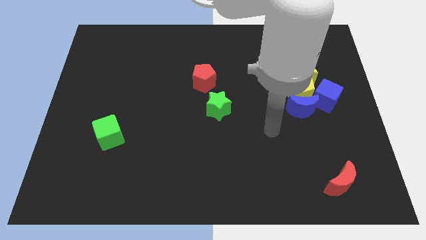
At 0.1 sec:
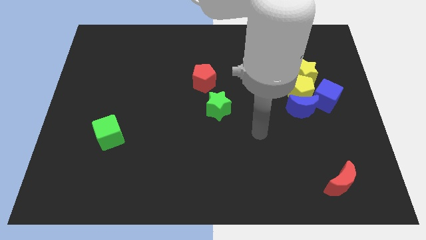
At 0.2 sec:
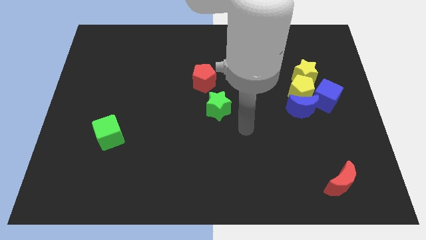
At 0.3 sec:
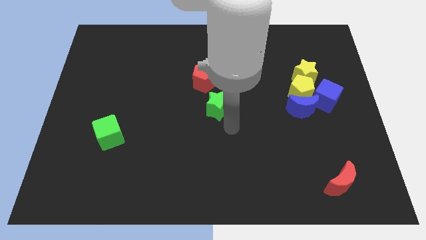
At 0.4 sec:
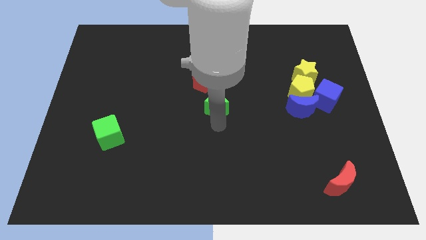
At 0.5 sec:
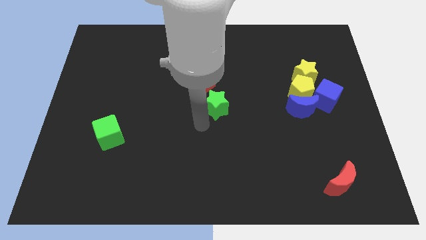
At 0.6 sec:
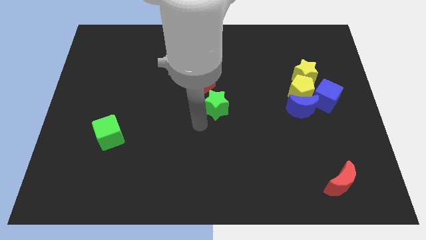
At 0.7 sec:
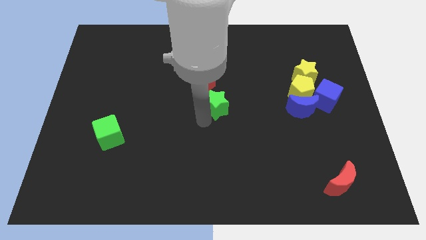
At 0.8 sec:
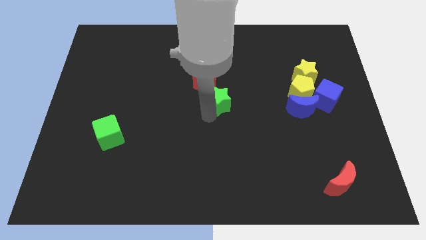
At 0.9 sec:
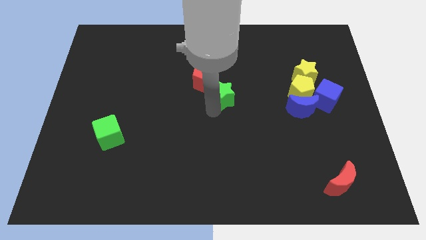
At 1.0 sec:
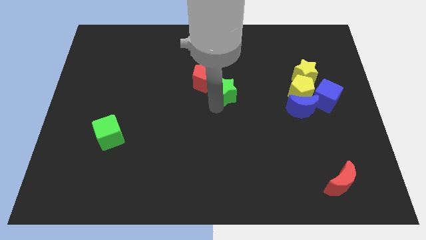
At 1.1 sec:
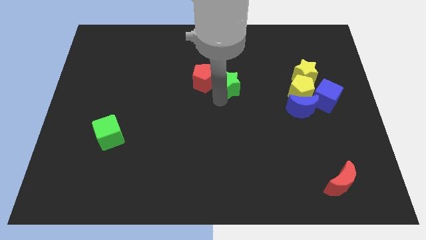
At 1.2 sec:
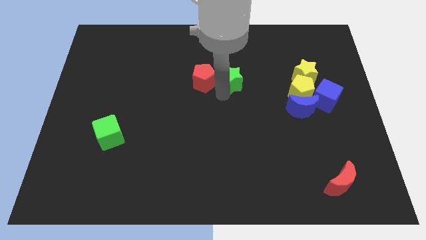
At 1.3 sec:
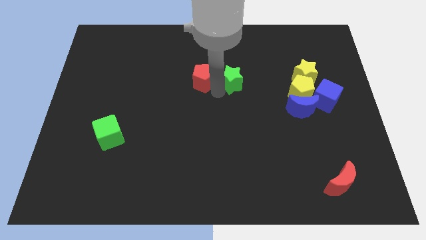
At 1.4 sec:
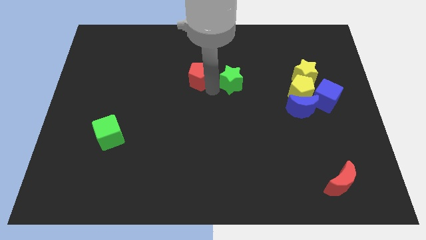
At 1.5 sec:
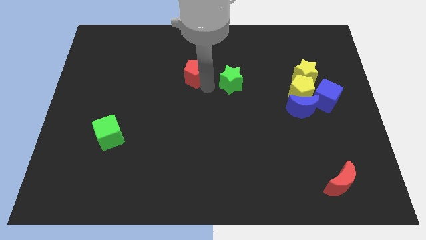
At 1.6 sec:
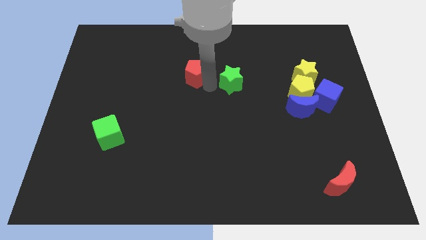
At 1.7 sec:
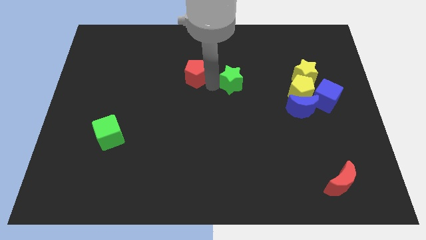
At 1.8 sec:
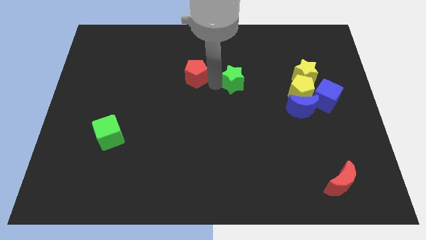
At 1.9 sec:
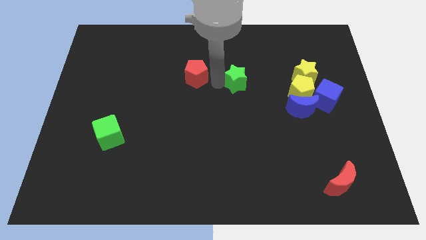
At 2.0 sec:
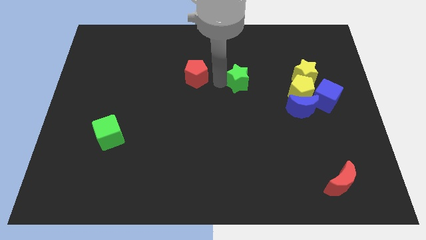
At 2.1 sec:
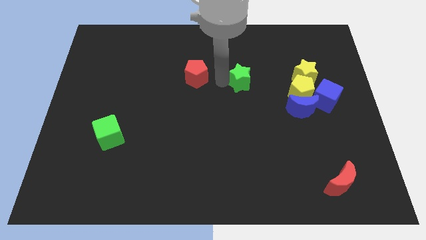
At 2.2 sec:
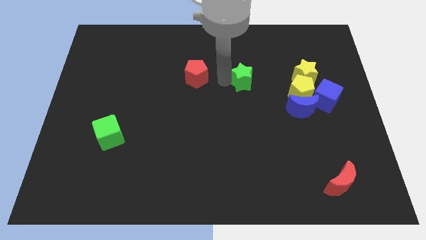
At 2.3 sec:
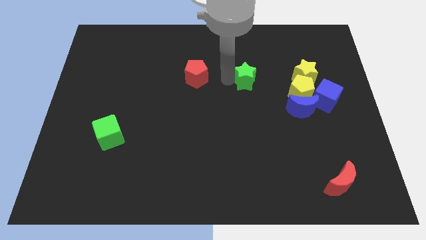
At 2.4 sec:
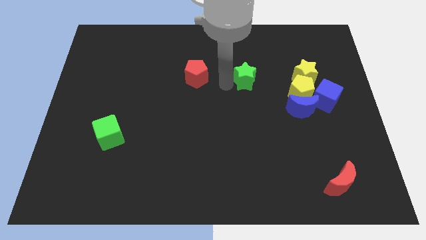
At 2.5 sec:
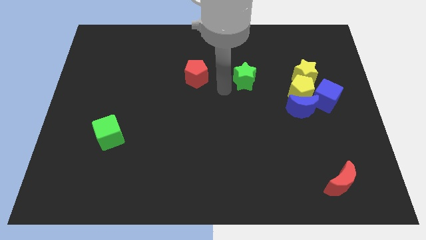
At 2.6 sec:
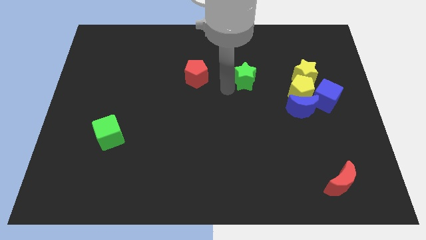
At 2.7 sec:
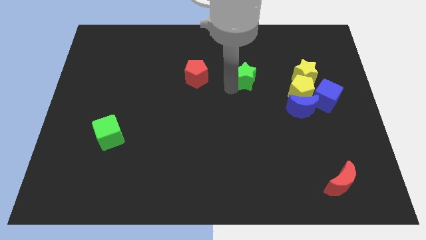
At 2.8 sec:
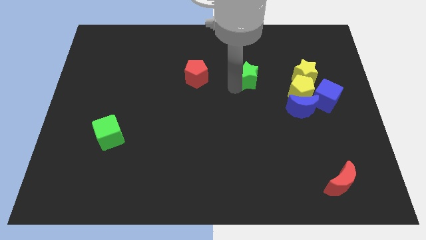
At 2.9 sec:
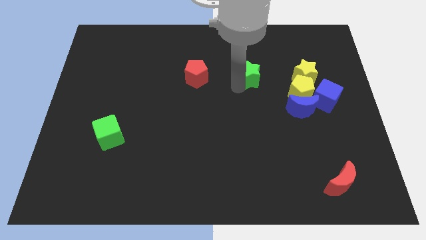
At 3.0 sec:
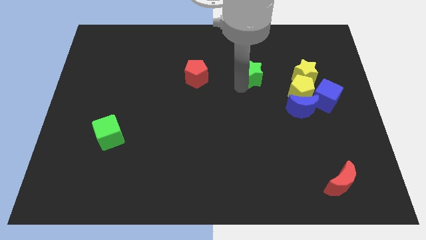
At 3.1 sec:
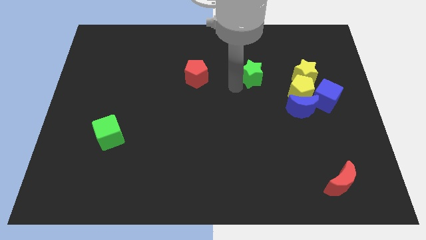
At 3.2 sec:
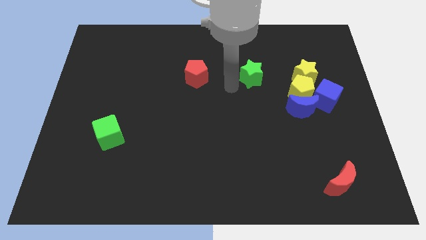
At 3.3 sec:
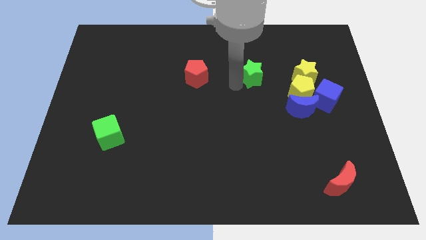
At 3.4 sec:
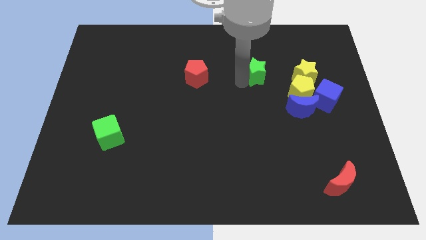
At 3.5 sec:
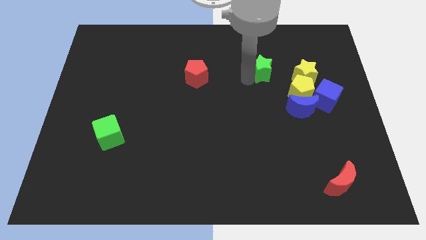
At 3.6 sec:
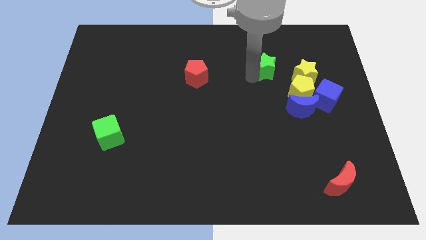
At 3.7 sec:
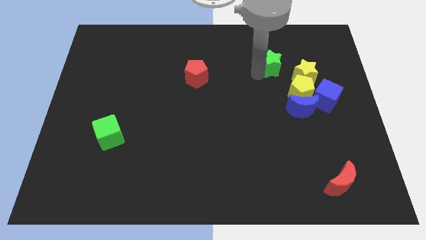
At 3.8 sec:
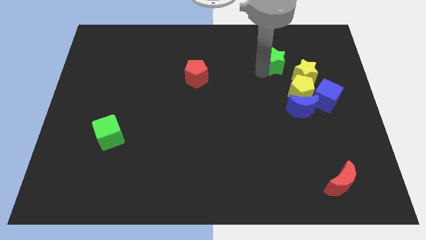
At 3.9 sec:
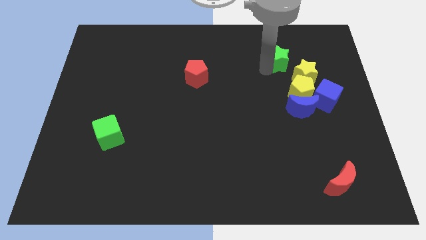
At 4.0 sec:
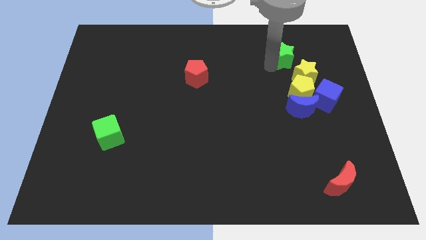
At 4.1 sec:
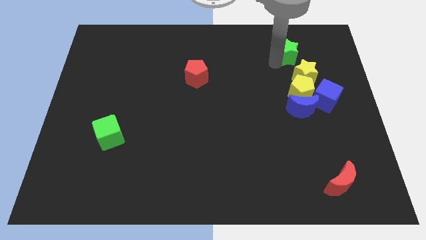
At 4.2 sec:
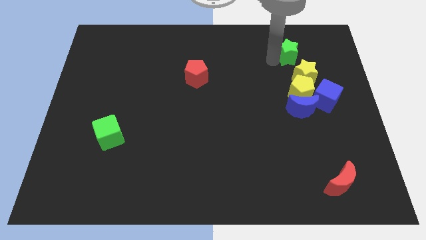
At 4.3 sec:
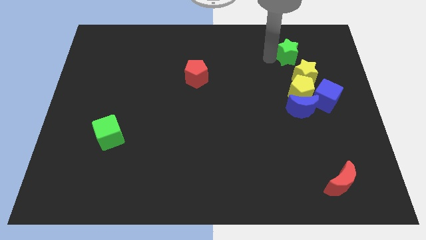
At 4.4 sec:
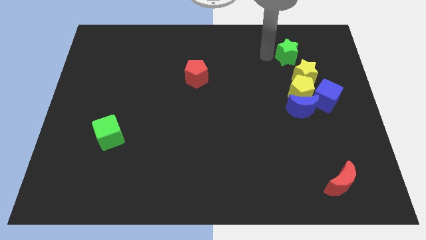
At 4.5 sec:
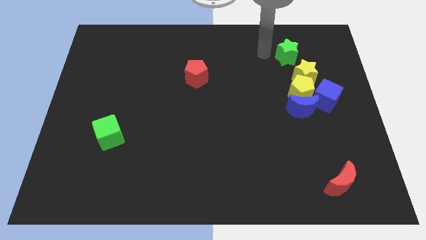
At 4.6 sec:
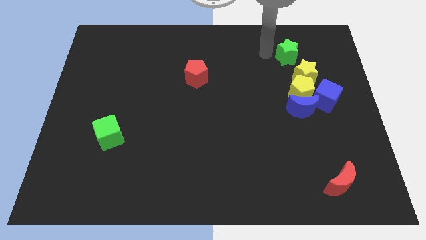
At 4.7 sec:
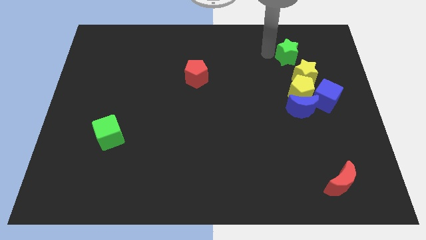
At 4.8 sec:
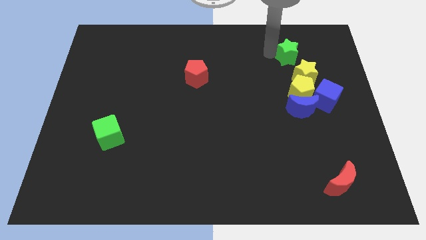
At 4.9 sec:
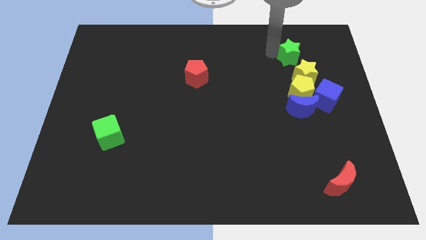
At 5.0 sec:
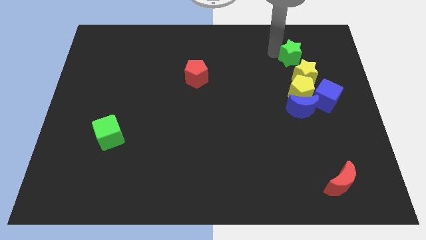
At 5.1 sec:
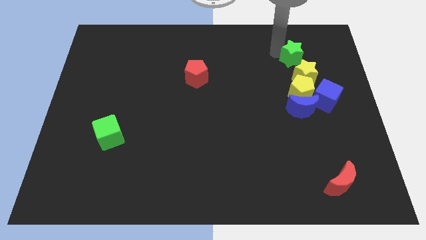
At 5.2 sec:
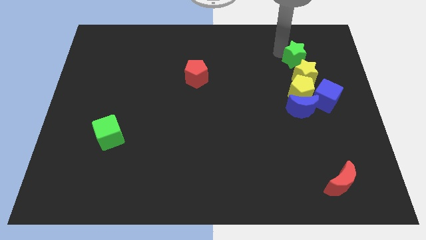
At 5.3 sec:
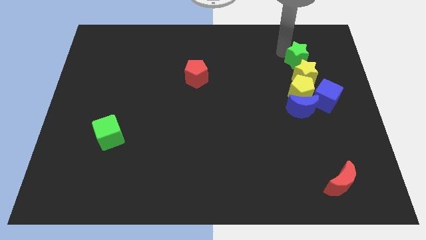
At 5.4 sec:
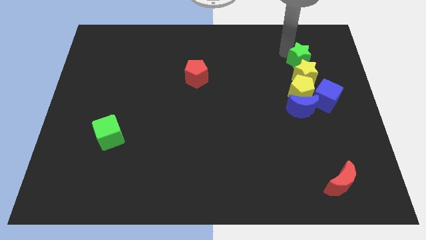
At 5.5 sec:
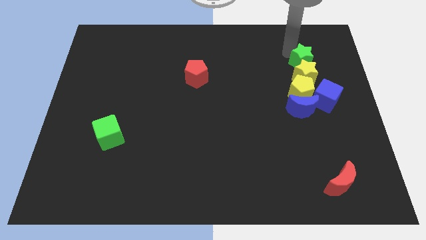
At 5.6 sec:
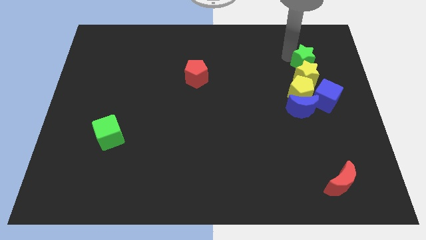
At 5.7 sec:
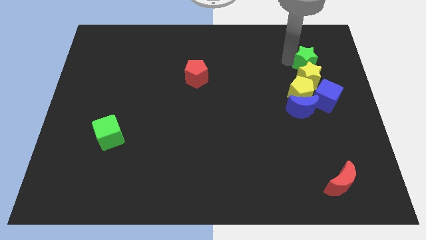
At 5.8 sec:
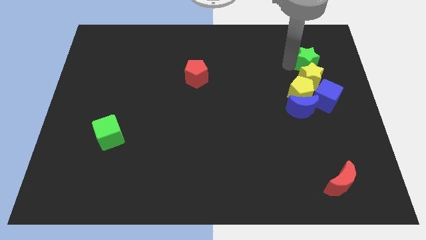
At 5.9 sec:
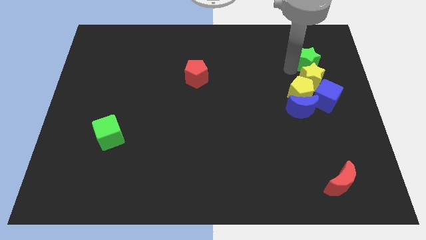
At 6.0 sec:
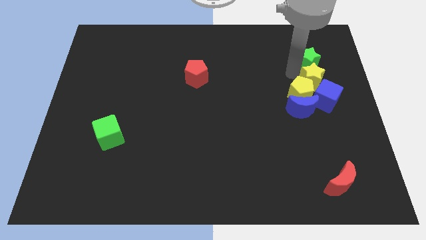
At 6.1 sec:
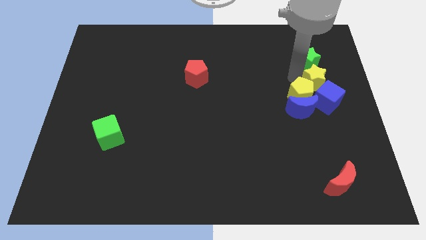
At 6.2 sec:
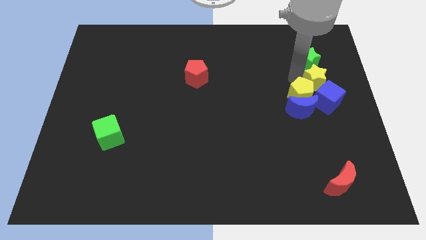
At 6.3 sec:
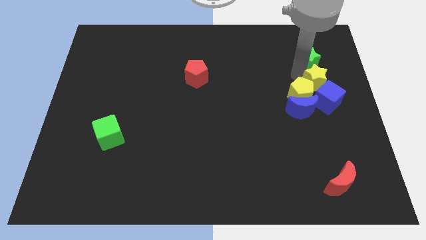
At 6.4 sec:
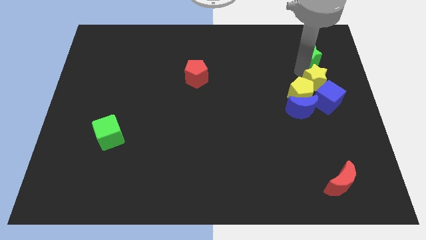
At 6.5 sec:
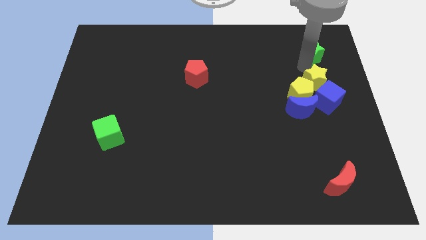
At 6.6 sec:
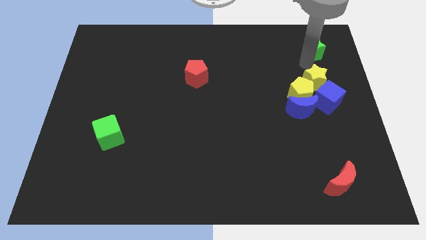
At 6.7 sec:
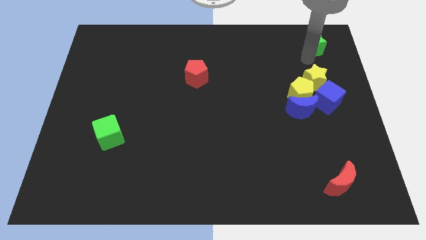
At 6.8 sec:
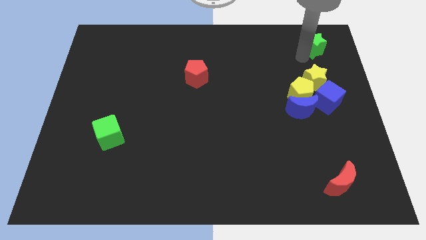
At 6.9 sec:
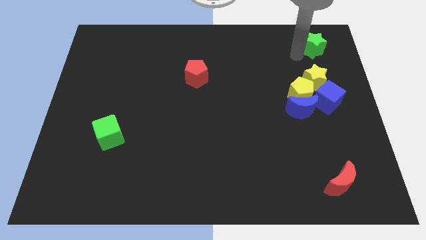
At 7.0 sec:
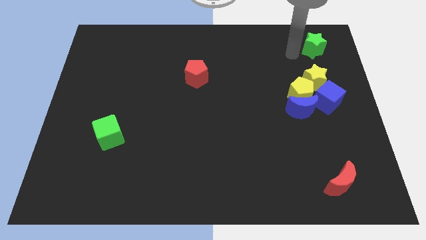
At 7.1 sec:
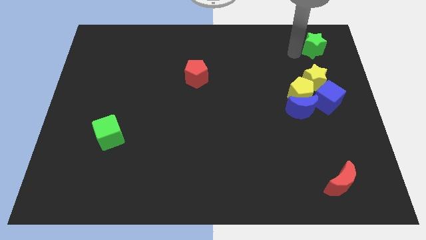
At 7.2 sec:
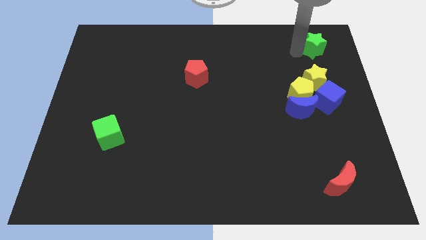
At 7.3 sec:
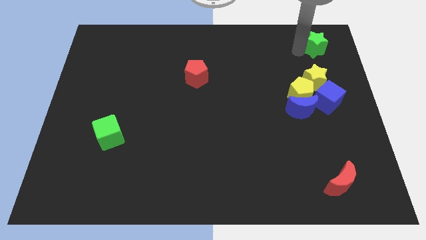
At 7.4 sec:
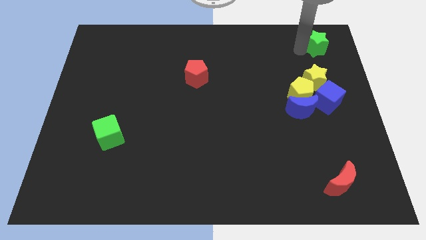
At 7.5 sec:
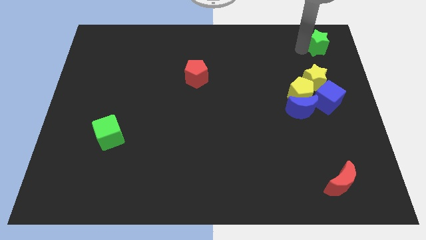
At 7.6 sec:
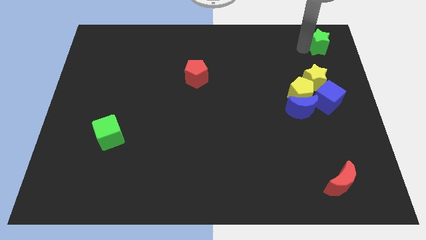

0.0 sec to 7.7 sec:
move the green star to the upper right corner
